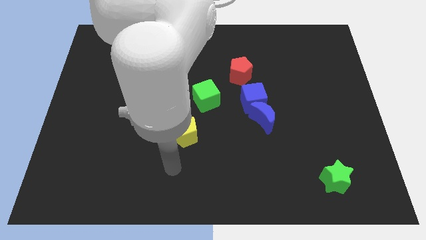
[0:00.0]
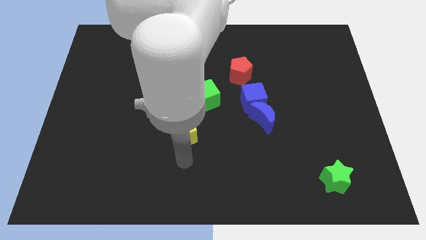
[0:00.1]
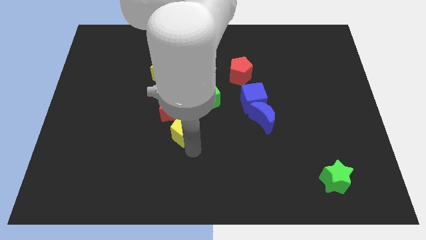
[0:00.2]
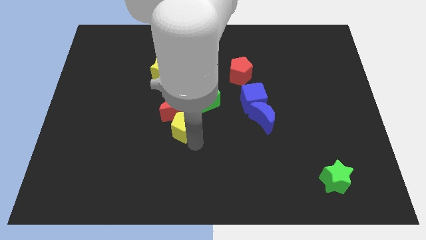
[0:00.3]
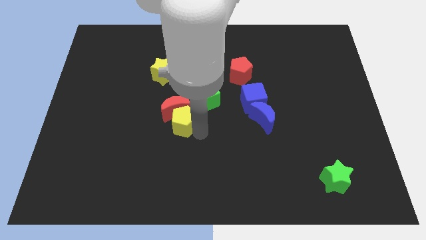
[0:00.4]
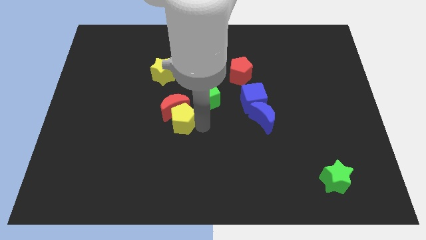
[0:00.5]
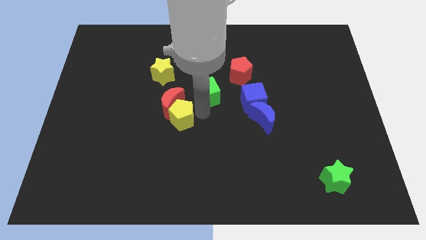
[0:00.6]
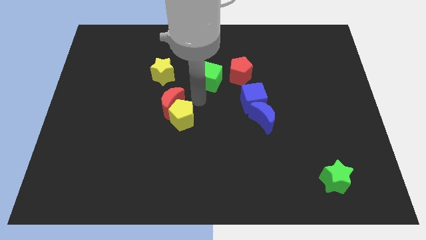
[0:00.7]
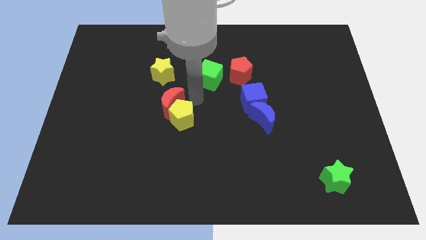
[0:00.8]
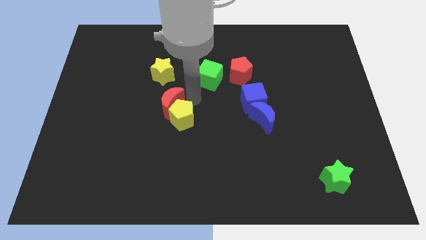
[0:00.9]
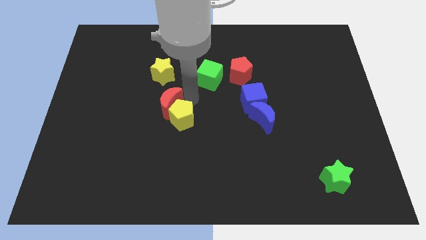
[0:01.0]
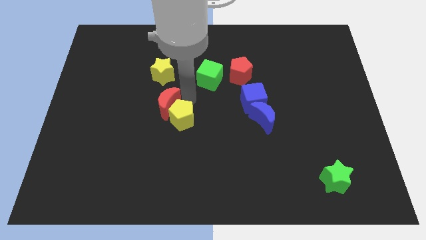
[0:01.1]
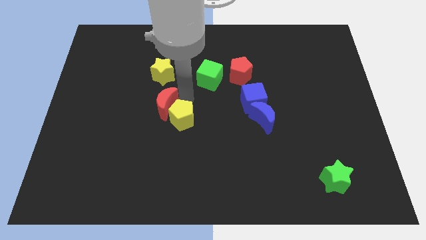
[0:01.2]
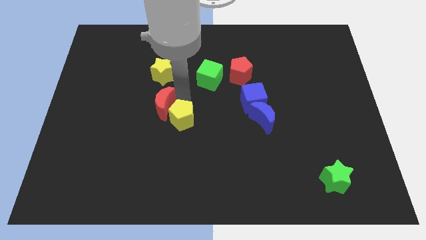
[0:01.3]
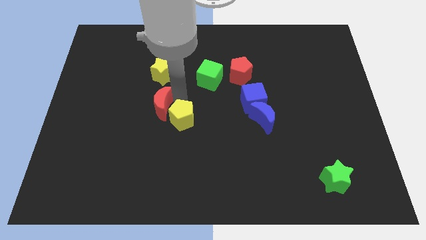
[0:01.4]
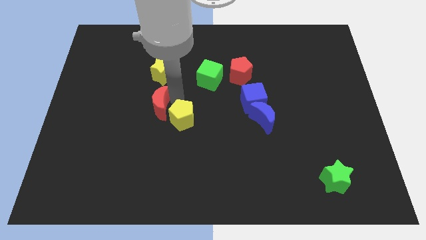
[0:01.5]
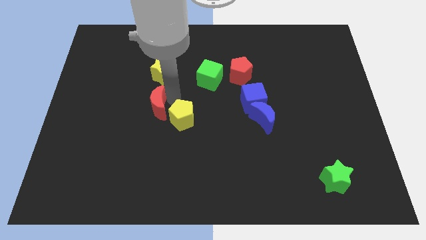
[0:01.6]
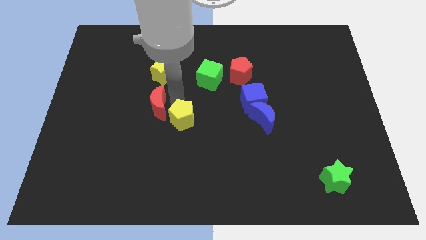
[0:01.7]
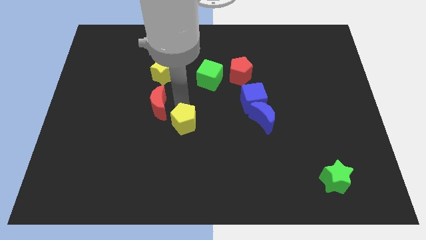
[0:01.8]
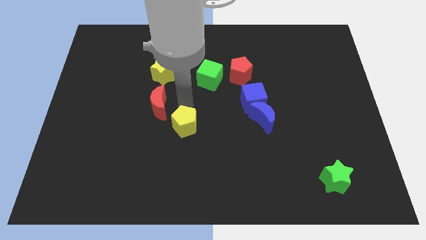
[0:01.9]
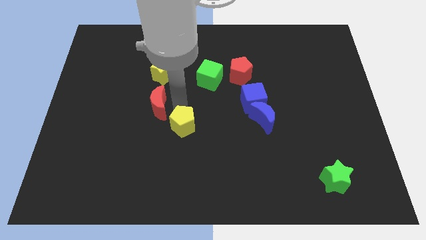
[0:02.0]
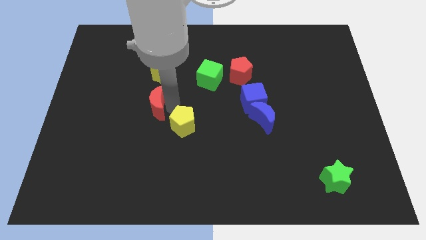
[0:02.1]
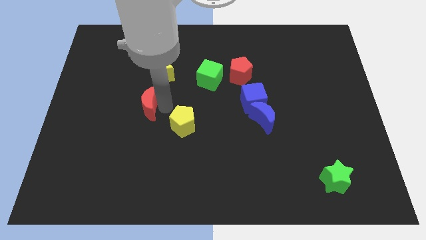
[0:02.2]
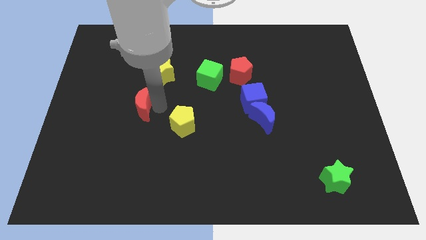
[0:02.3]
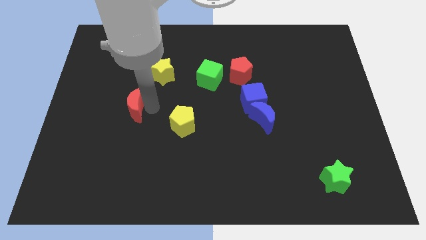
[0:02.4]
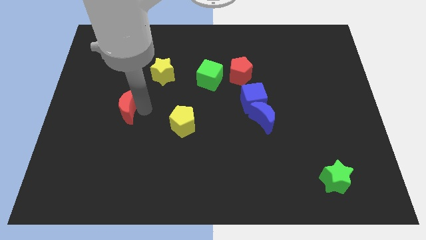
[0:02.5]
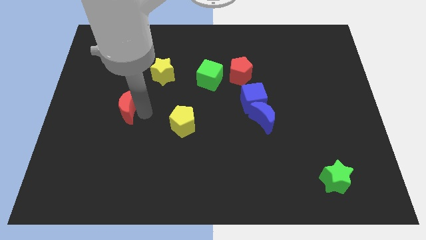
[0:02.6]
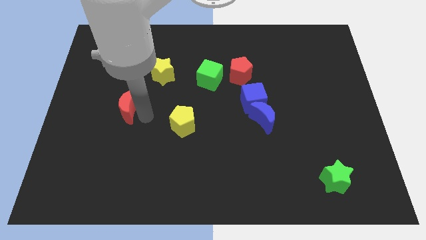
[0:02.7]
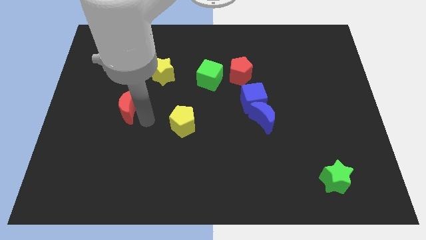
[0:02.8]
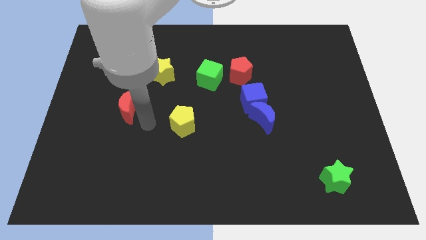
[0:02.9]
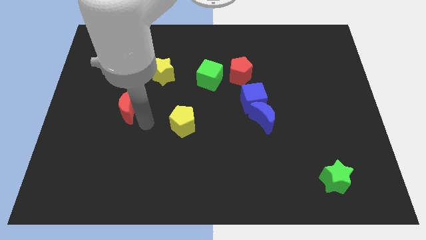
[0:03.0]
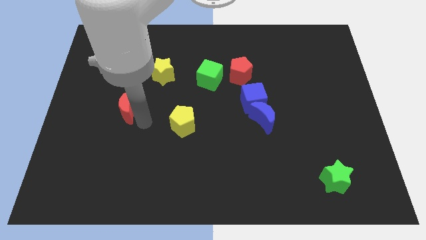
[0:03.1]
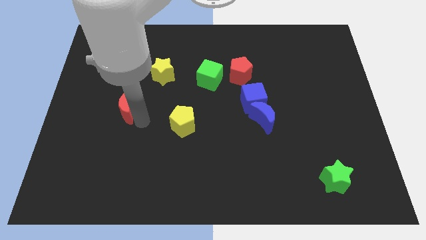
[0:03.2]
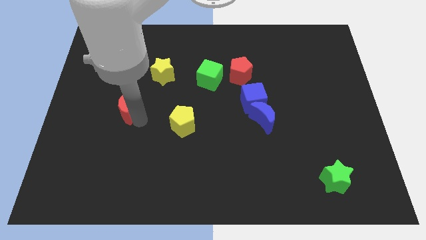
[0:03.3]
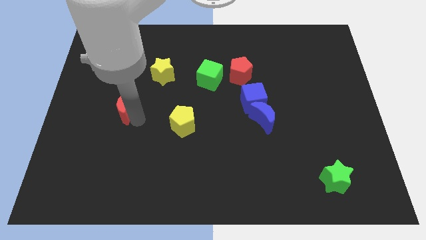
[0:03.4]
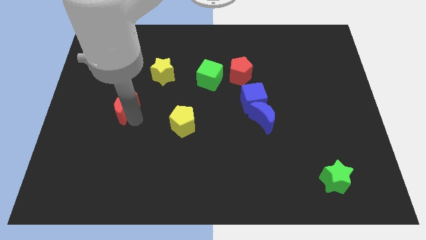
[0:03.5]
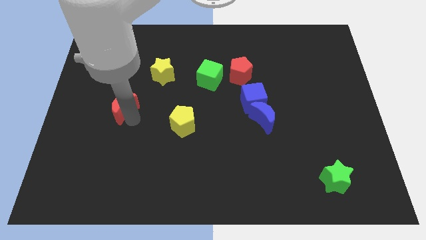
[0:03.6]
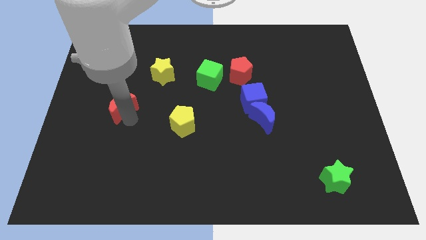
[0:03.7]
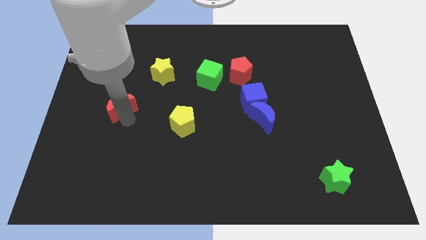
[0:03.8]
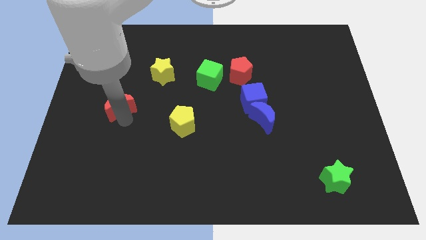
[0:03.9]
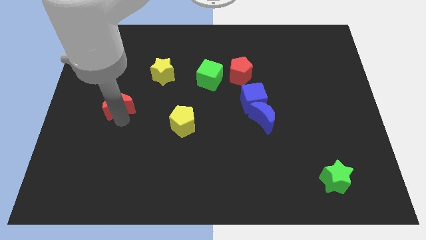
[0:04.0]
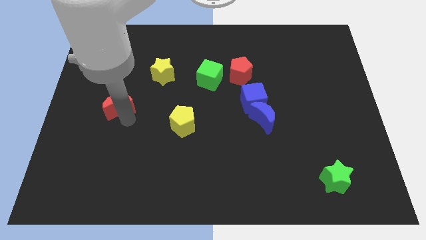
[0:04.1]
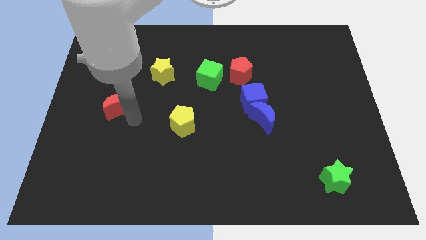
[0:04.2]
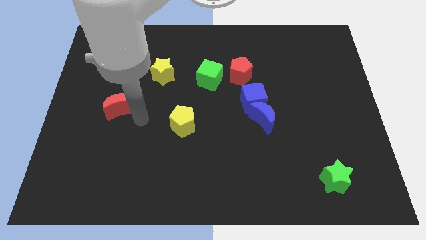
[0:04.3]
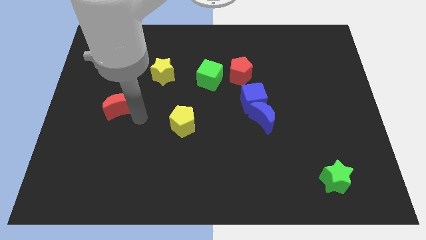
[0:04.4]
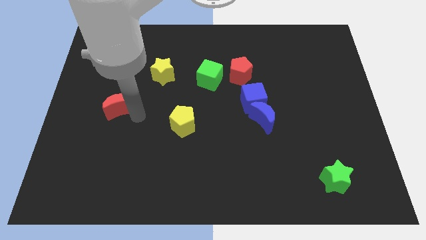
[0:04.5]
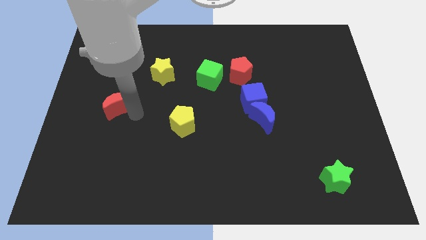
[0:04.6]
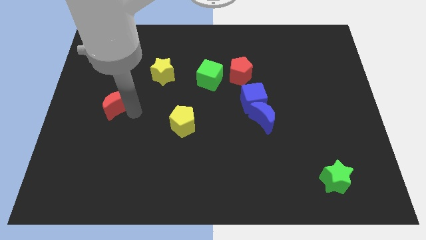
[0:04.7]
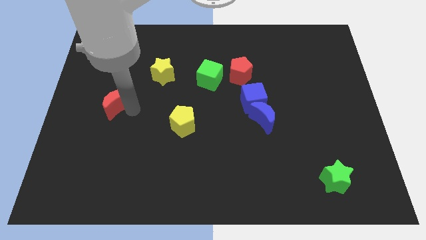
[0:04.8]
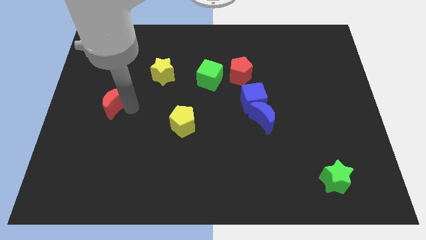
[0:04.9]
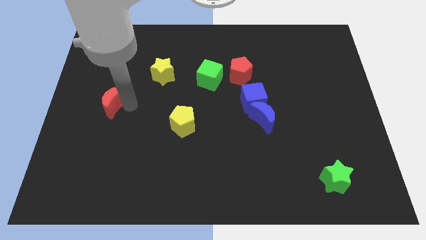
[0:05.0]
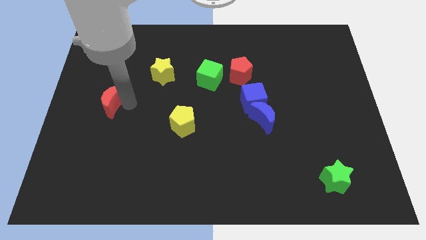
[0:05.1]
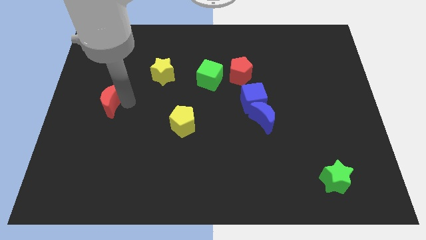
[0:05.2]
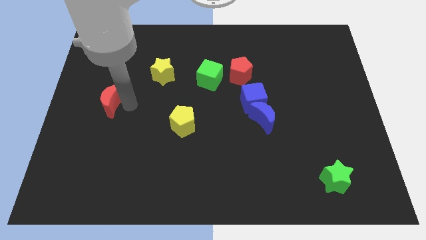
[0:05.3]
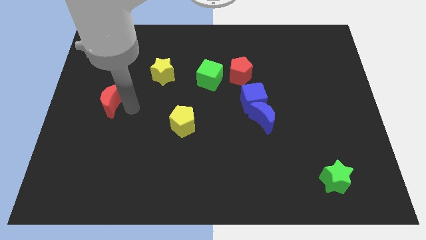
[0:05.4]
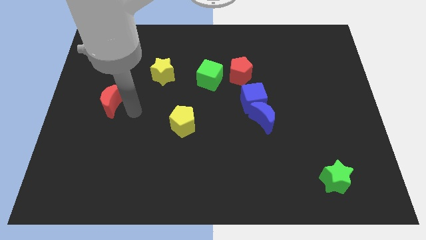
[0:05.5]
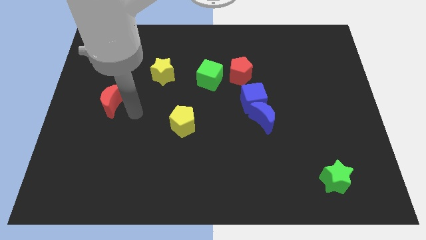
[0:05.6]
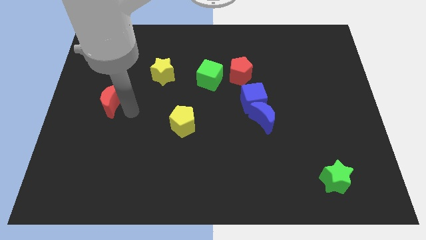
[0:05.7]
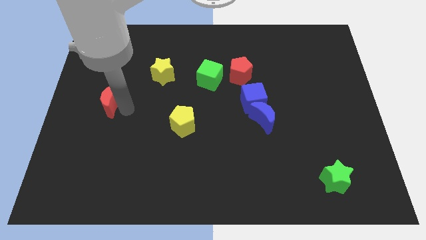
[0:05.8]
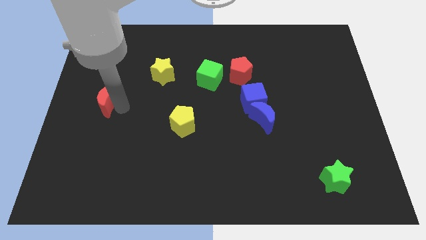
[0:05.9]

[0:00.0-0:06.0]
move the red moon to the left side

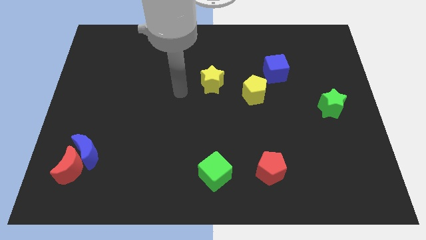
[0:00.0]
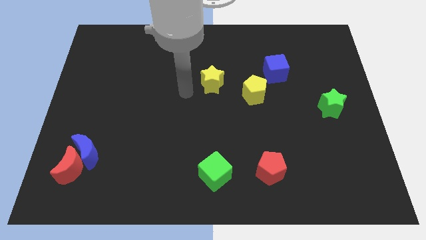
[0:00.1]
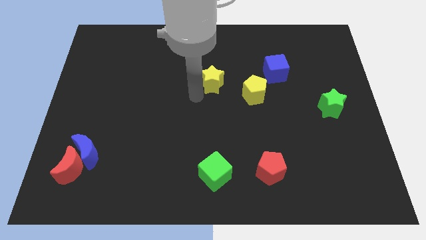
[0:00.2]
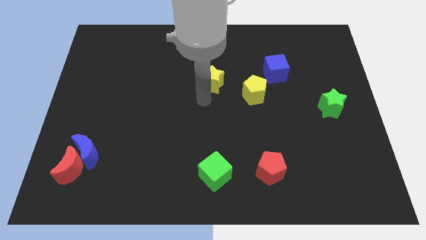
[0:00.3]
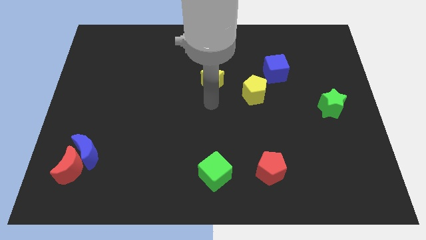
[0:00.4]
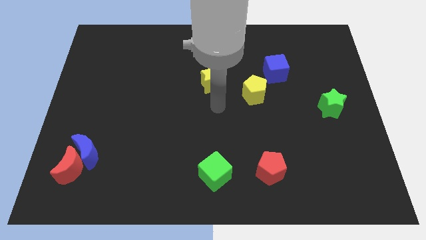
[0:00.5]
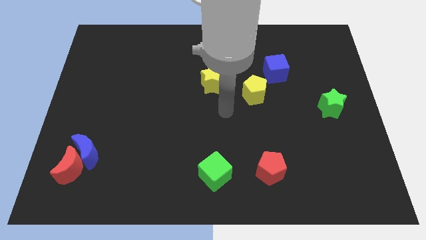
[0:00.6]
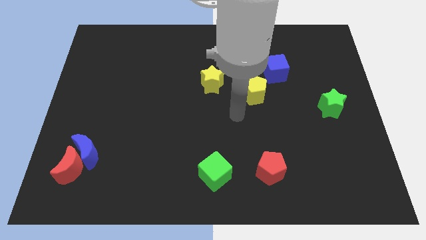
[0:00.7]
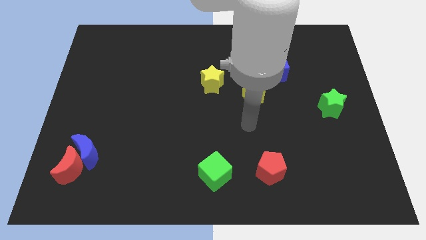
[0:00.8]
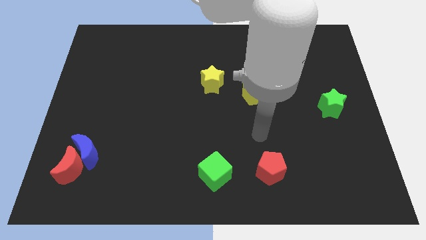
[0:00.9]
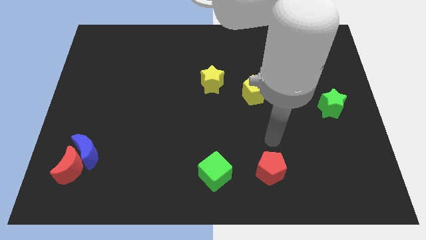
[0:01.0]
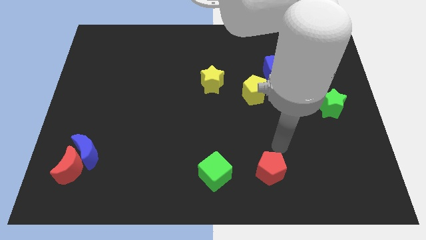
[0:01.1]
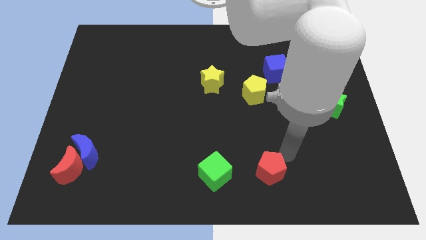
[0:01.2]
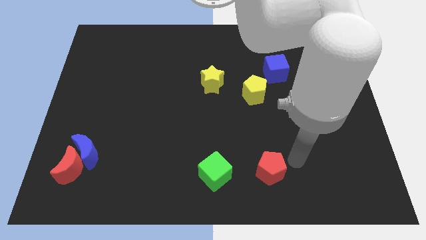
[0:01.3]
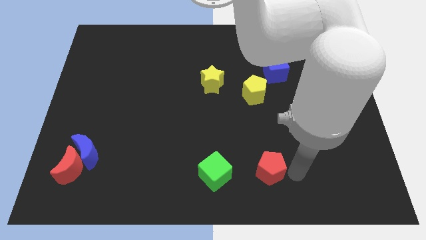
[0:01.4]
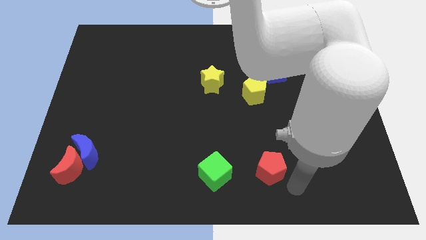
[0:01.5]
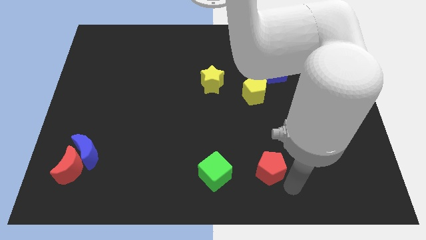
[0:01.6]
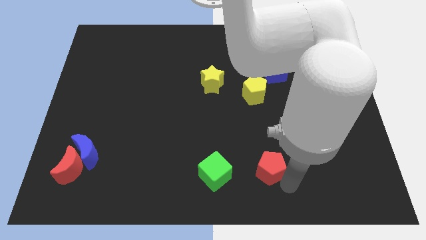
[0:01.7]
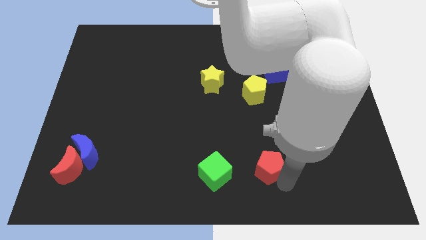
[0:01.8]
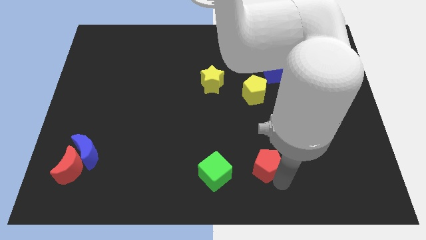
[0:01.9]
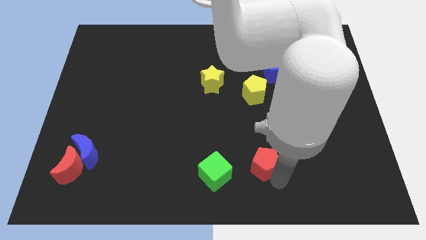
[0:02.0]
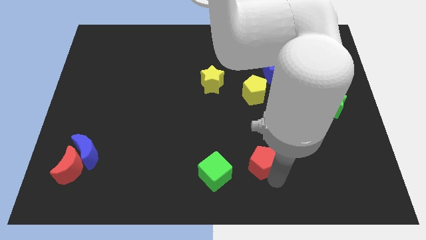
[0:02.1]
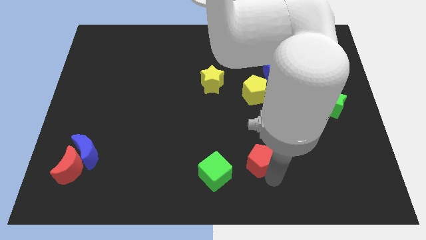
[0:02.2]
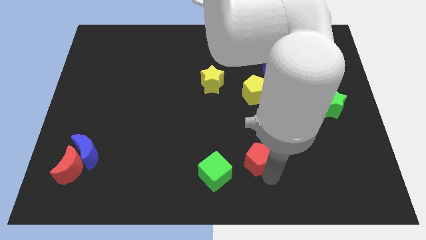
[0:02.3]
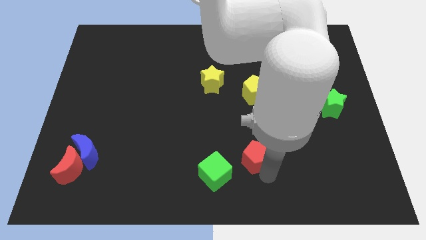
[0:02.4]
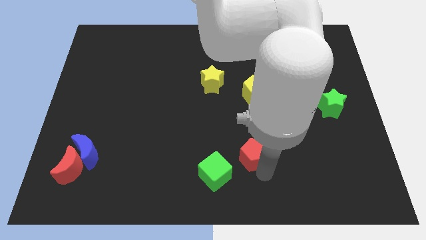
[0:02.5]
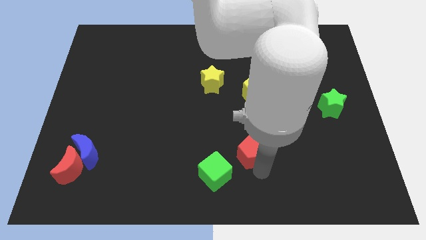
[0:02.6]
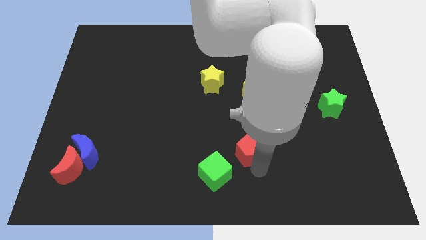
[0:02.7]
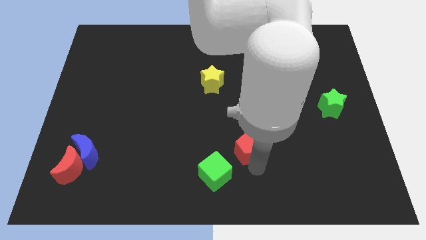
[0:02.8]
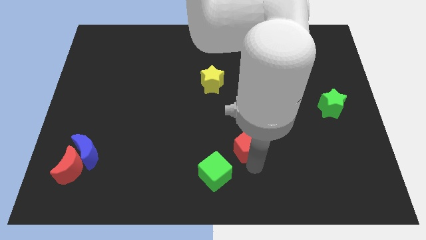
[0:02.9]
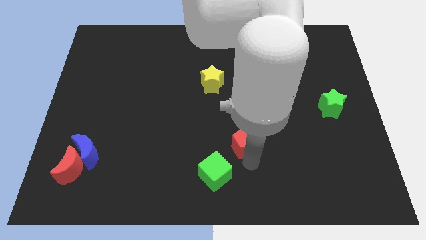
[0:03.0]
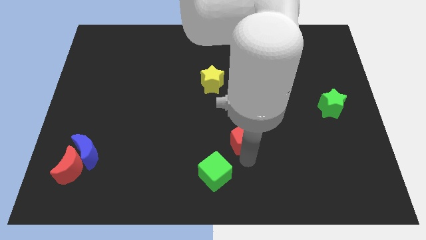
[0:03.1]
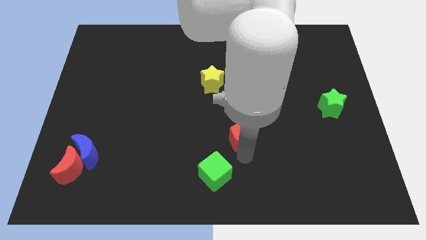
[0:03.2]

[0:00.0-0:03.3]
slide the red pentagon to the center
